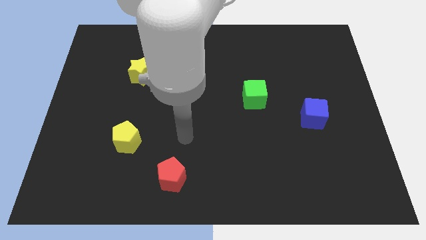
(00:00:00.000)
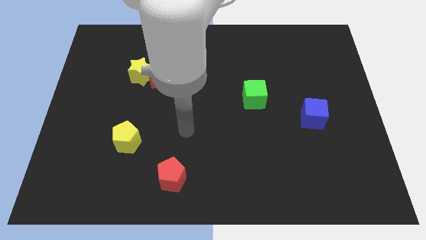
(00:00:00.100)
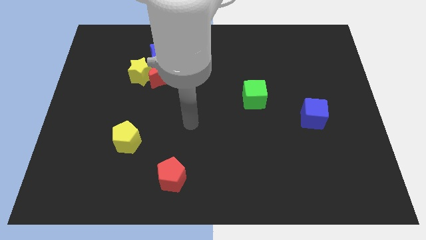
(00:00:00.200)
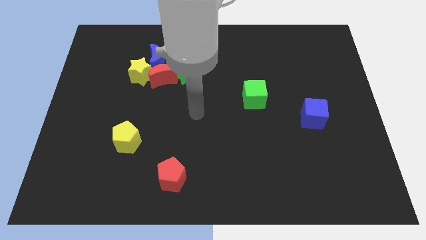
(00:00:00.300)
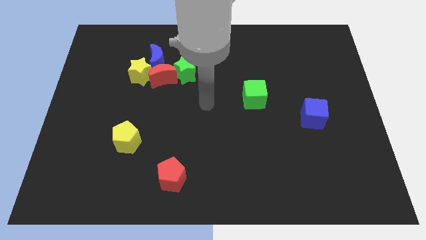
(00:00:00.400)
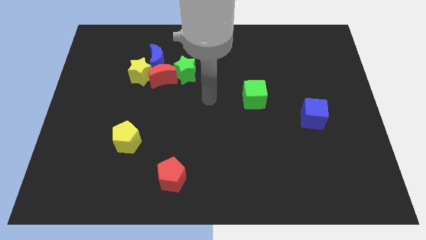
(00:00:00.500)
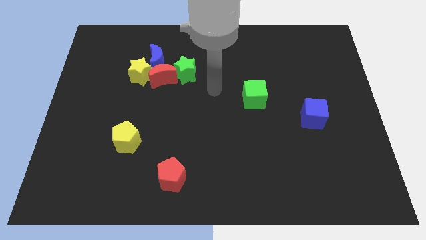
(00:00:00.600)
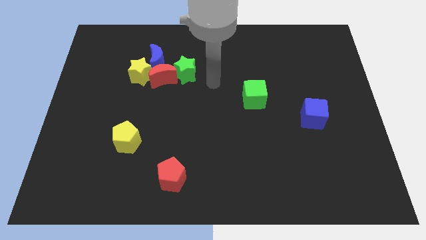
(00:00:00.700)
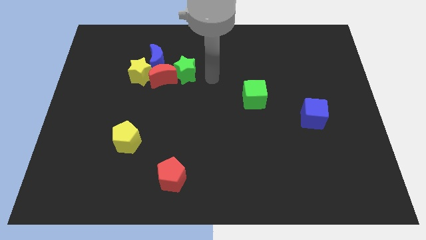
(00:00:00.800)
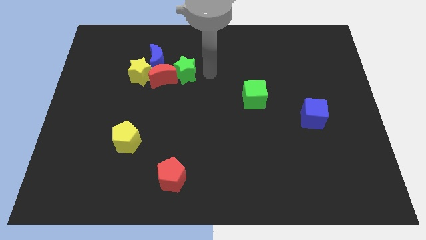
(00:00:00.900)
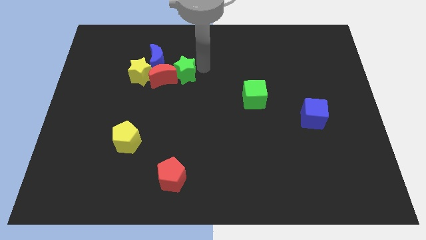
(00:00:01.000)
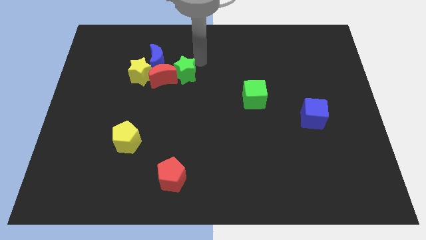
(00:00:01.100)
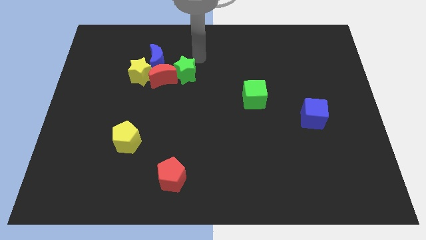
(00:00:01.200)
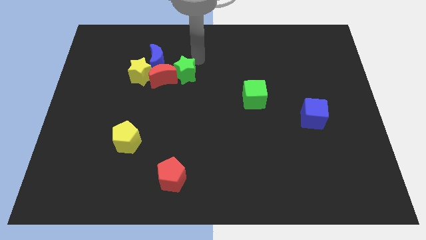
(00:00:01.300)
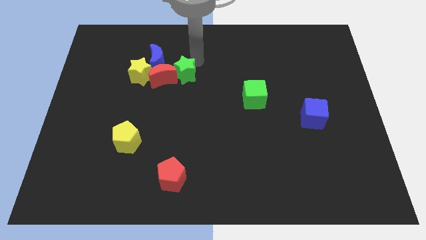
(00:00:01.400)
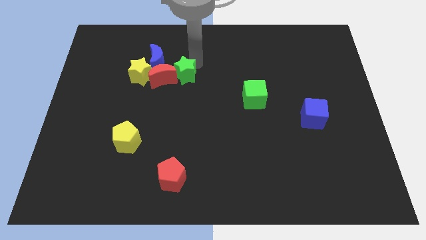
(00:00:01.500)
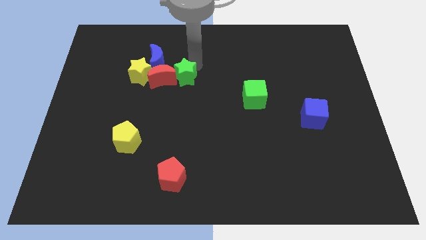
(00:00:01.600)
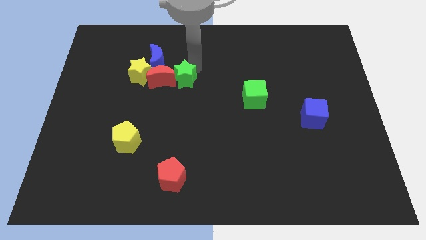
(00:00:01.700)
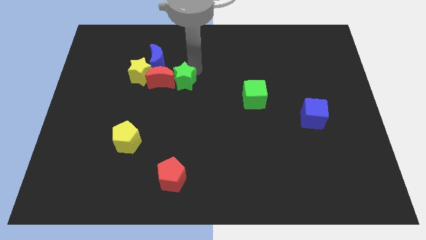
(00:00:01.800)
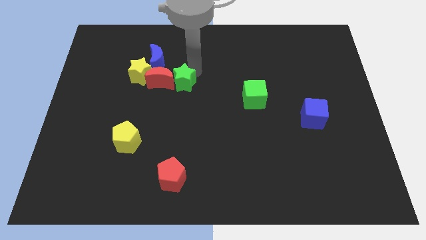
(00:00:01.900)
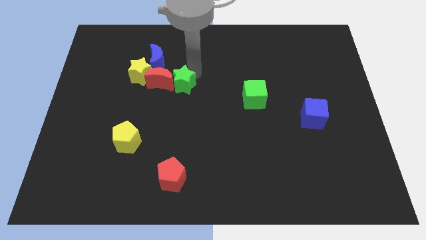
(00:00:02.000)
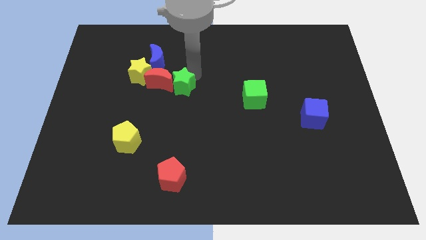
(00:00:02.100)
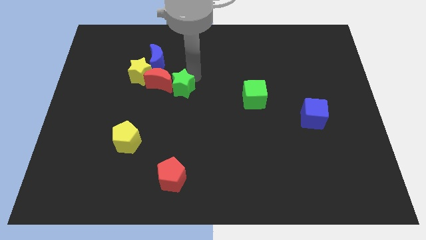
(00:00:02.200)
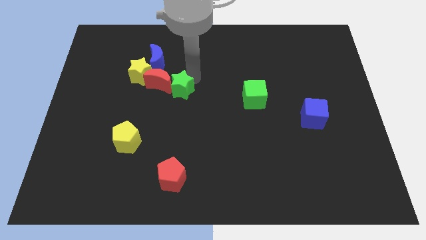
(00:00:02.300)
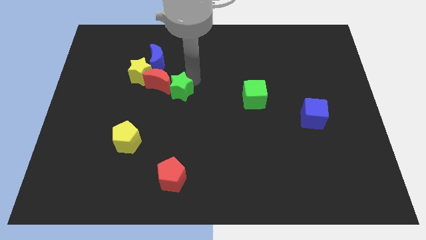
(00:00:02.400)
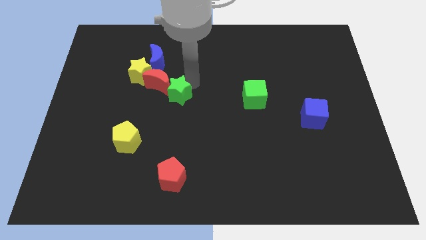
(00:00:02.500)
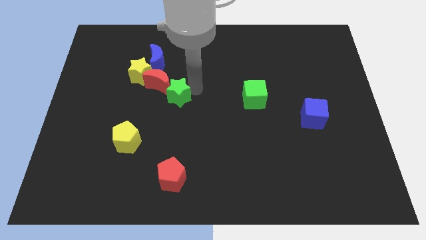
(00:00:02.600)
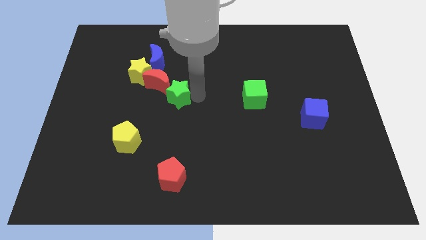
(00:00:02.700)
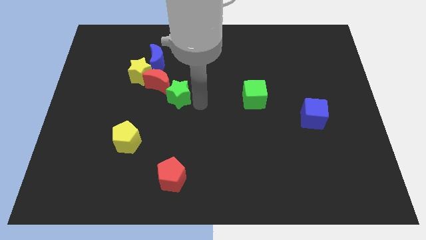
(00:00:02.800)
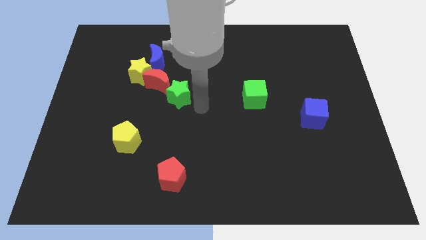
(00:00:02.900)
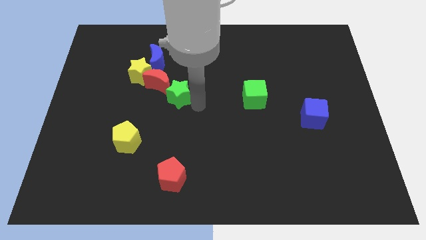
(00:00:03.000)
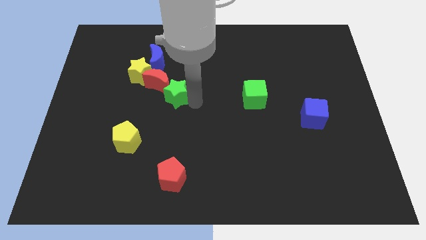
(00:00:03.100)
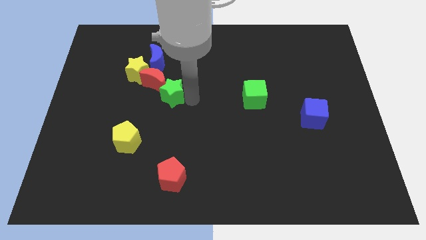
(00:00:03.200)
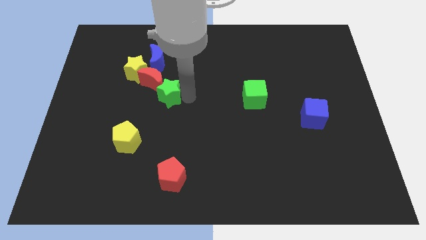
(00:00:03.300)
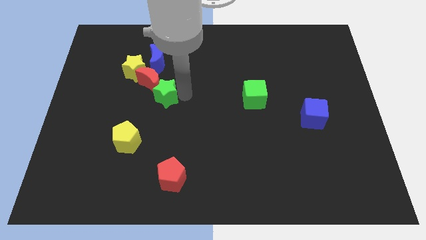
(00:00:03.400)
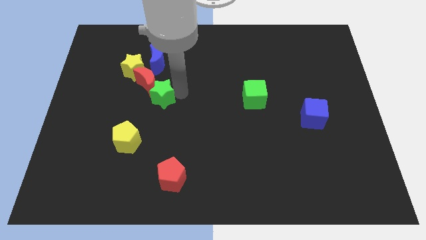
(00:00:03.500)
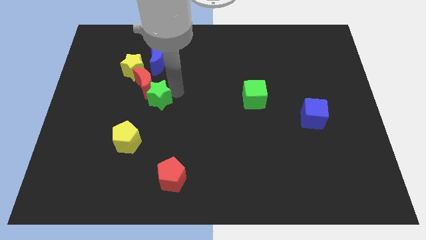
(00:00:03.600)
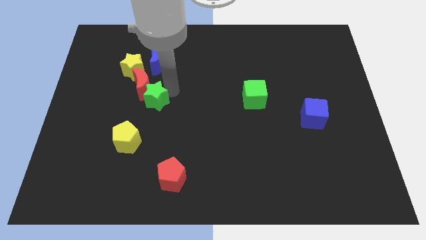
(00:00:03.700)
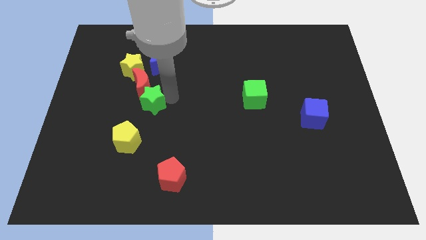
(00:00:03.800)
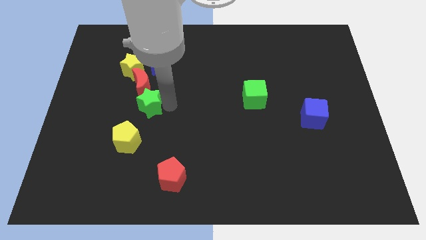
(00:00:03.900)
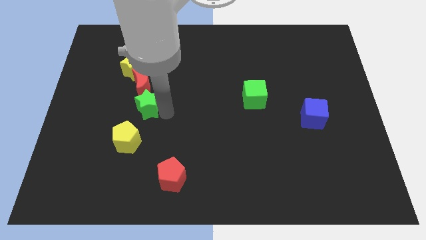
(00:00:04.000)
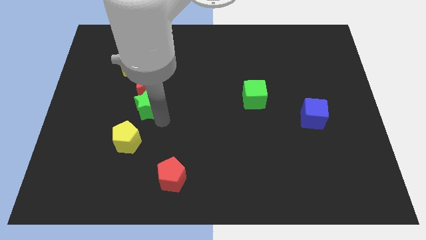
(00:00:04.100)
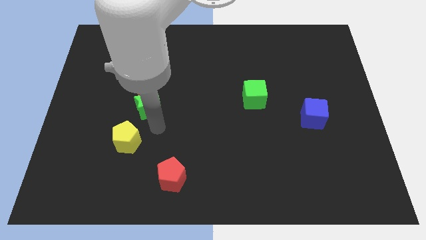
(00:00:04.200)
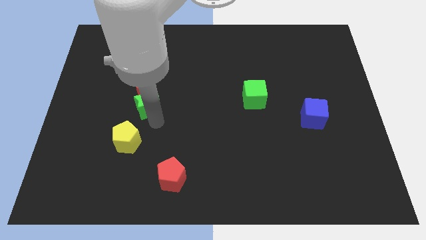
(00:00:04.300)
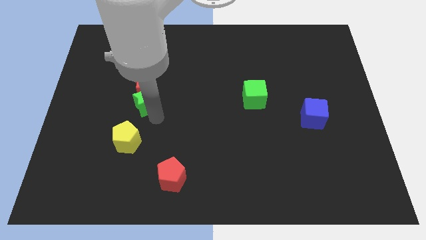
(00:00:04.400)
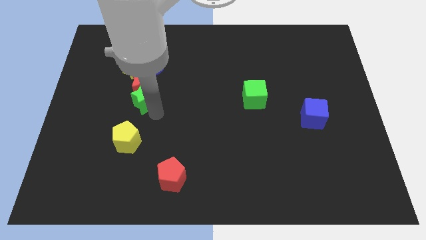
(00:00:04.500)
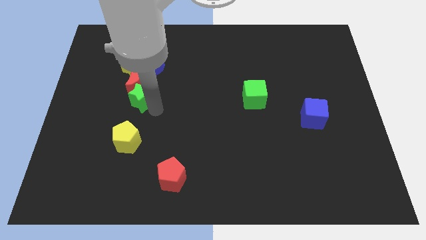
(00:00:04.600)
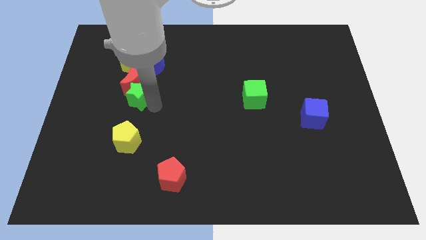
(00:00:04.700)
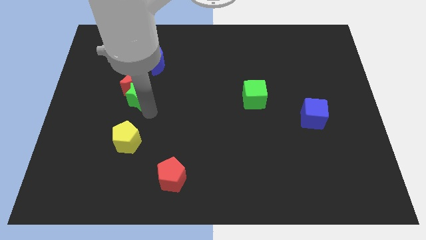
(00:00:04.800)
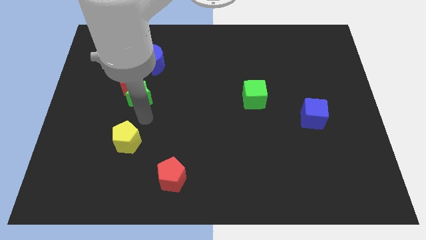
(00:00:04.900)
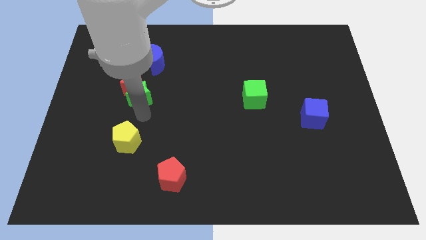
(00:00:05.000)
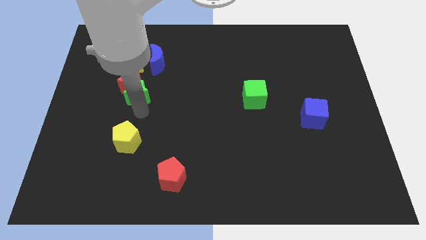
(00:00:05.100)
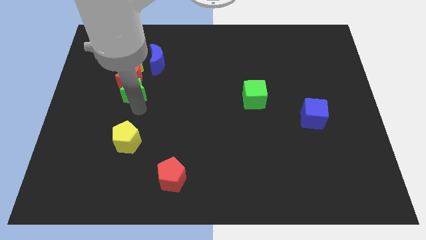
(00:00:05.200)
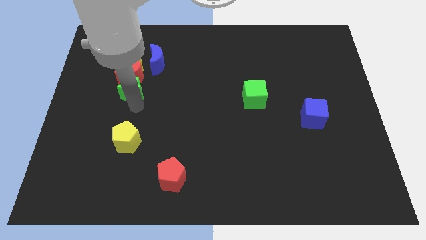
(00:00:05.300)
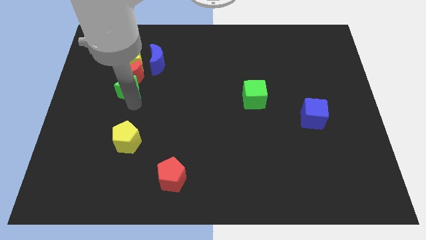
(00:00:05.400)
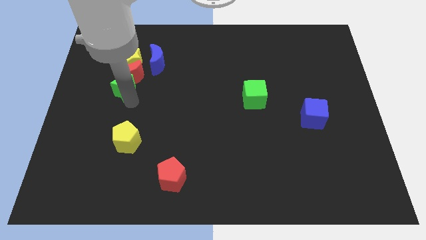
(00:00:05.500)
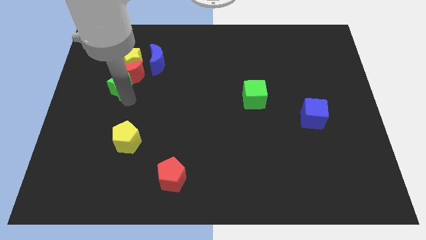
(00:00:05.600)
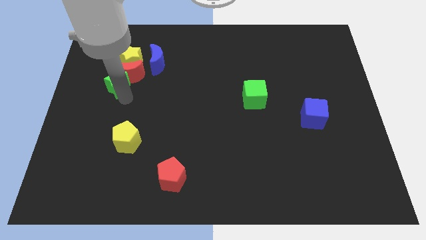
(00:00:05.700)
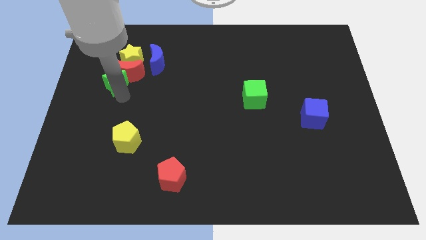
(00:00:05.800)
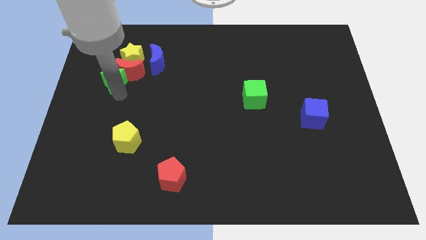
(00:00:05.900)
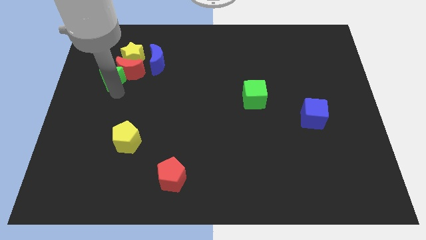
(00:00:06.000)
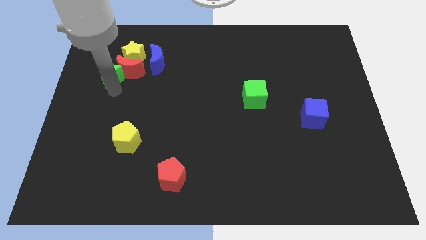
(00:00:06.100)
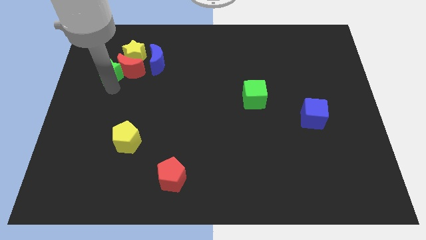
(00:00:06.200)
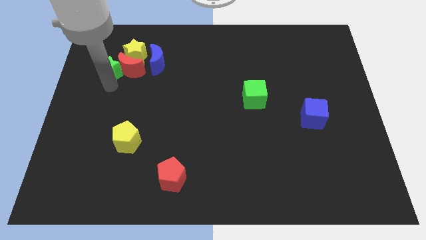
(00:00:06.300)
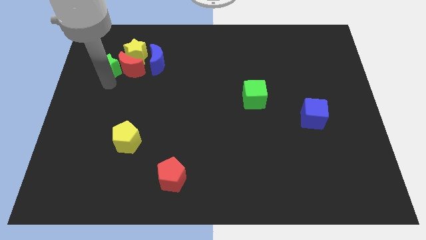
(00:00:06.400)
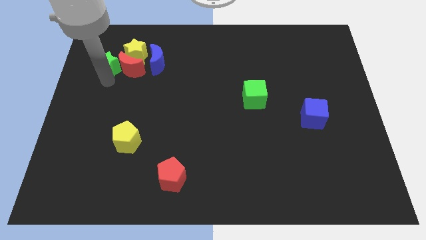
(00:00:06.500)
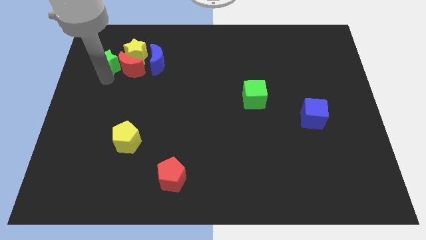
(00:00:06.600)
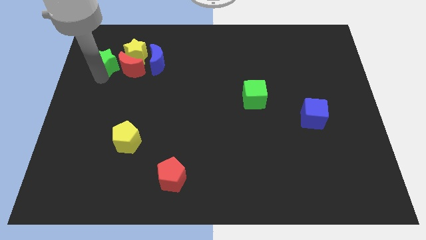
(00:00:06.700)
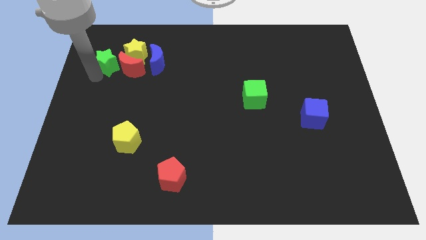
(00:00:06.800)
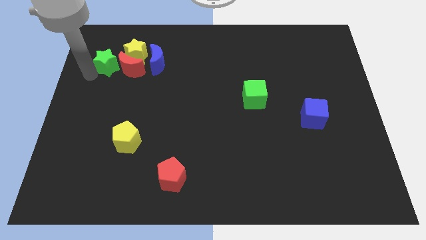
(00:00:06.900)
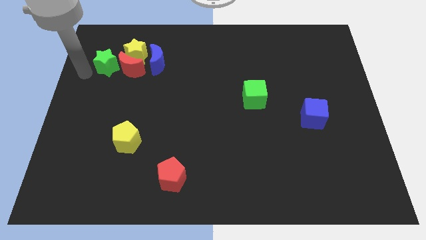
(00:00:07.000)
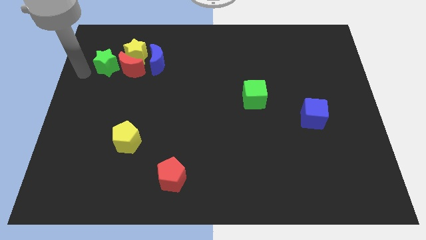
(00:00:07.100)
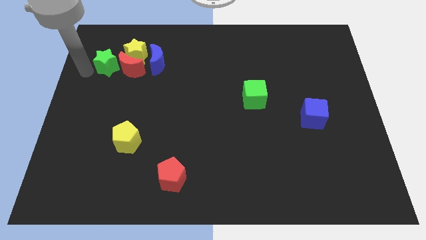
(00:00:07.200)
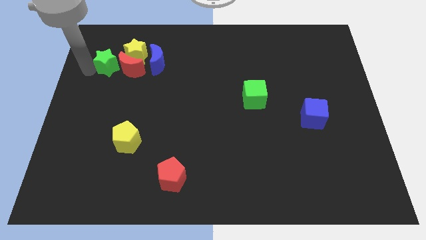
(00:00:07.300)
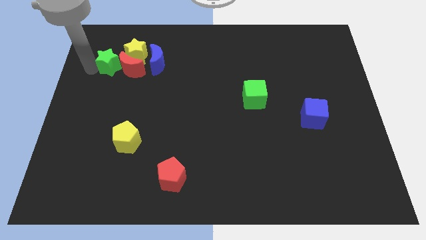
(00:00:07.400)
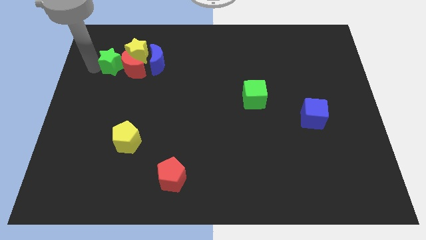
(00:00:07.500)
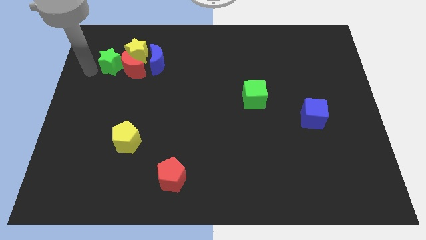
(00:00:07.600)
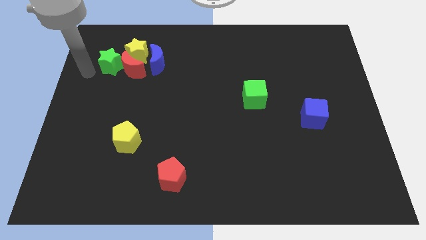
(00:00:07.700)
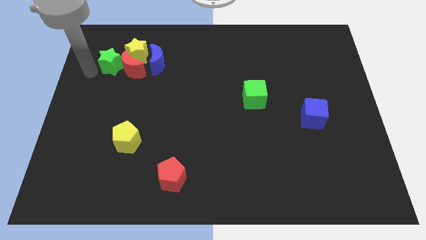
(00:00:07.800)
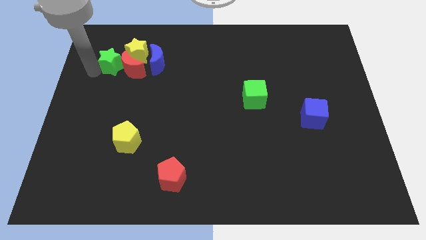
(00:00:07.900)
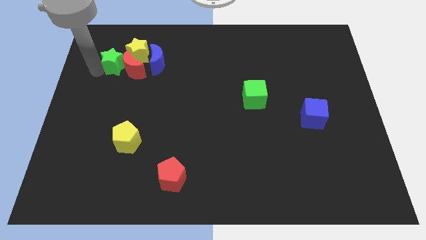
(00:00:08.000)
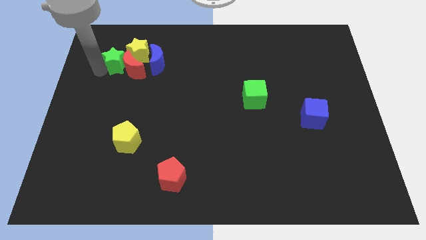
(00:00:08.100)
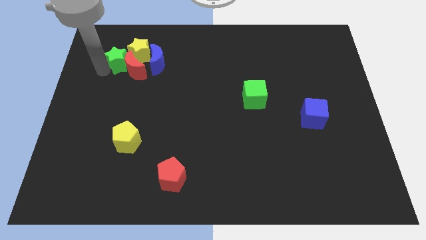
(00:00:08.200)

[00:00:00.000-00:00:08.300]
slide the green star next to the yellow star
